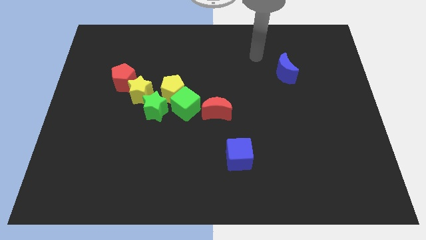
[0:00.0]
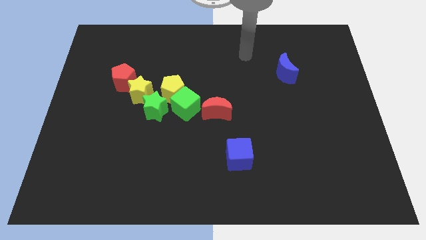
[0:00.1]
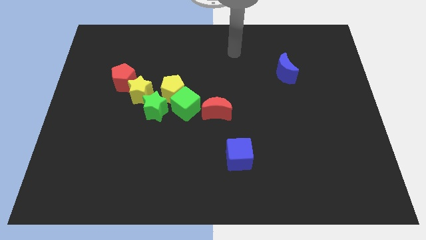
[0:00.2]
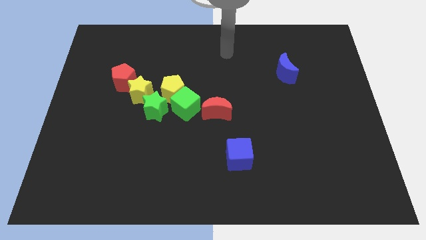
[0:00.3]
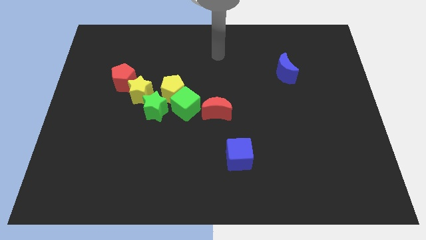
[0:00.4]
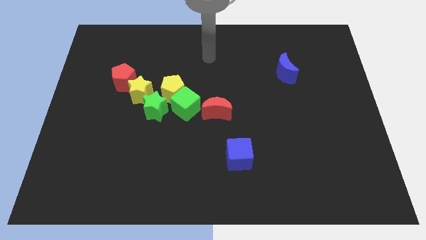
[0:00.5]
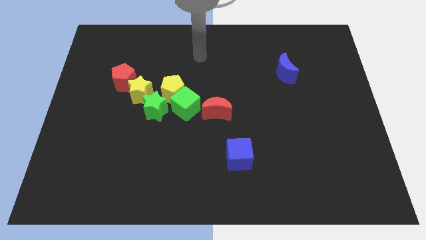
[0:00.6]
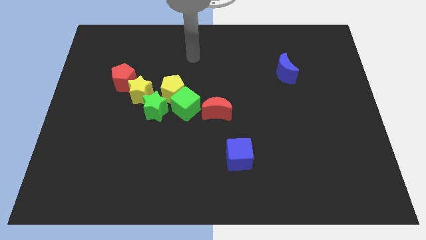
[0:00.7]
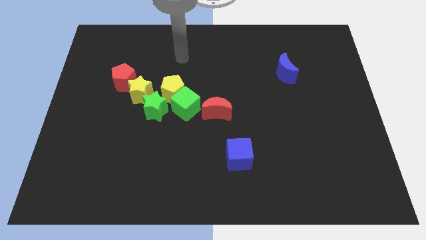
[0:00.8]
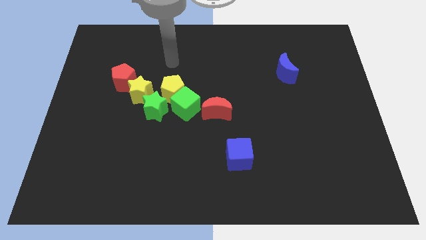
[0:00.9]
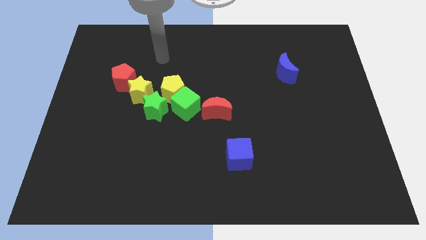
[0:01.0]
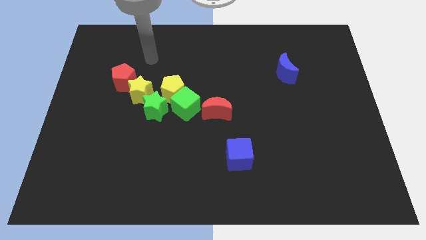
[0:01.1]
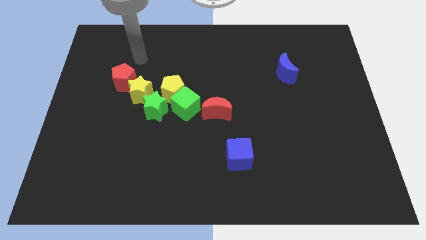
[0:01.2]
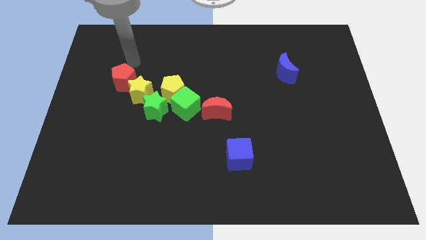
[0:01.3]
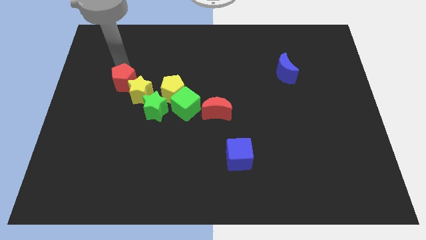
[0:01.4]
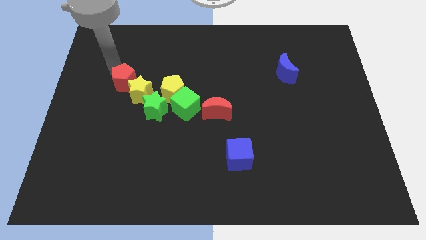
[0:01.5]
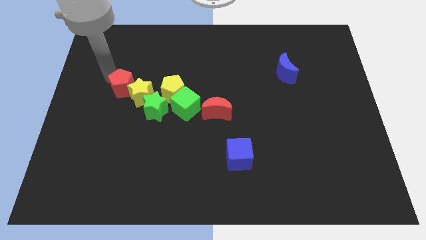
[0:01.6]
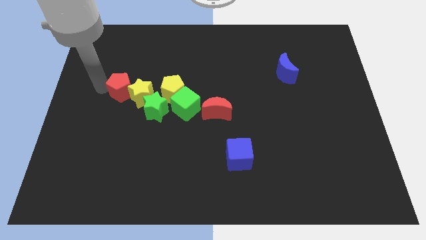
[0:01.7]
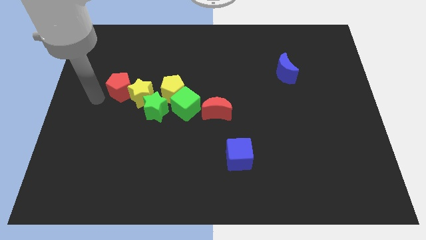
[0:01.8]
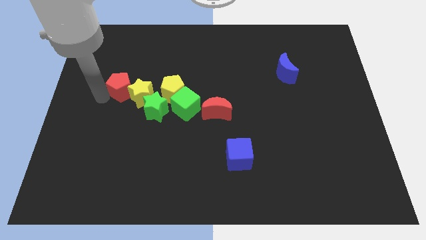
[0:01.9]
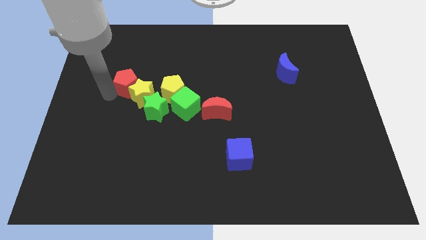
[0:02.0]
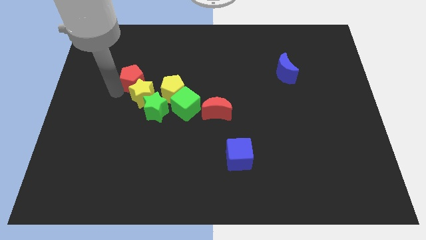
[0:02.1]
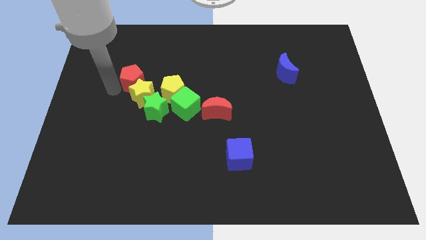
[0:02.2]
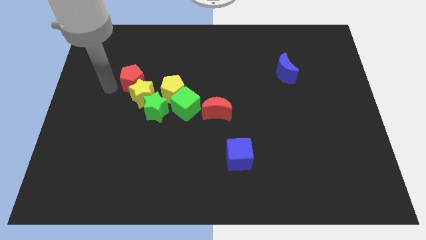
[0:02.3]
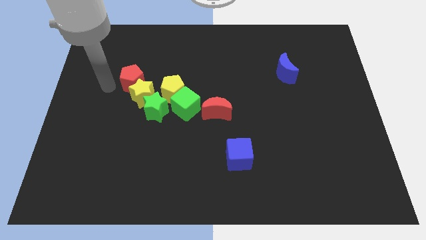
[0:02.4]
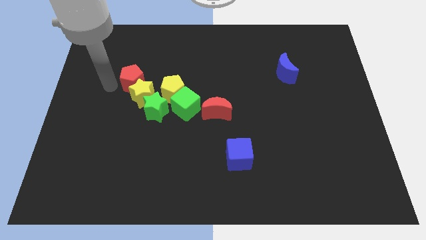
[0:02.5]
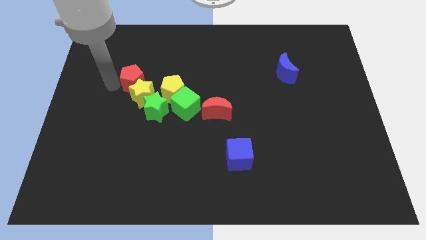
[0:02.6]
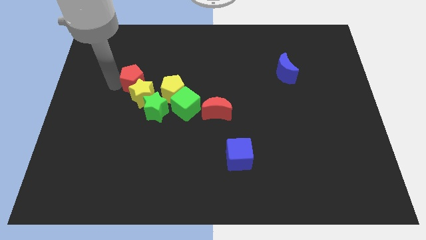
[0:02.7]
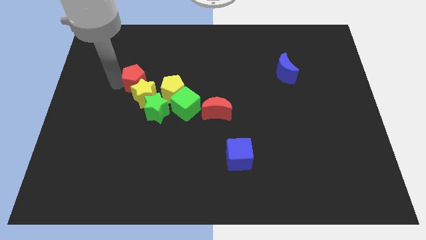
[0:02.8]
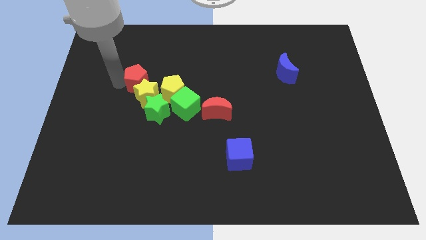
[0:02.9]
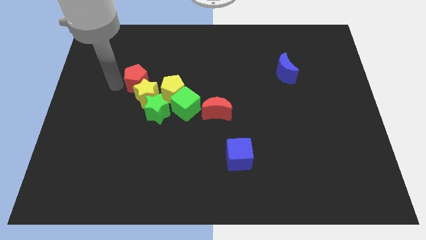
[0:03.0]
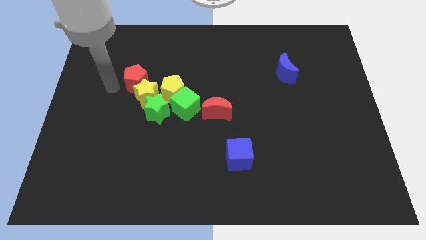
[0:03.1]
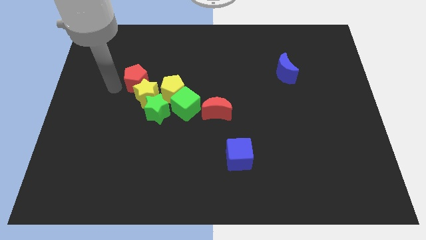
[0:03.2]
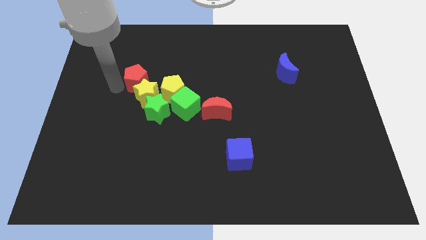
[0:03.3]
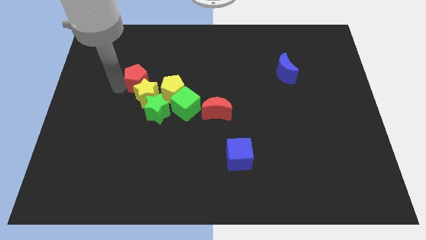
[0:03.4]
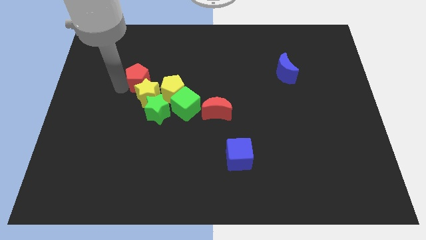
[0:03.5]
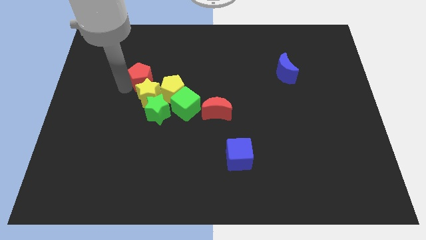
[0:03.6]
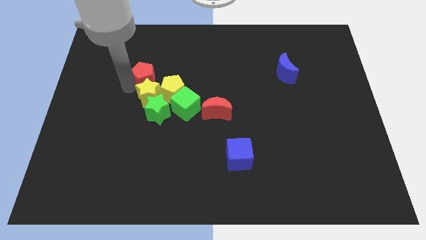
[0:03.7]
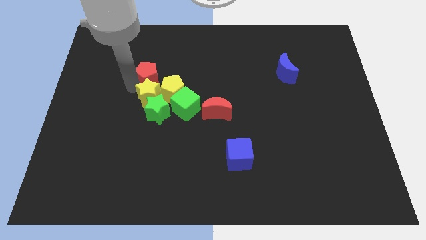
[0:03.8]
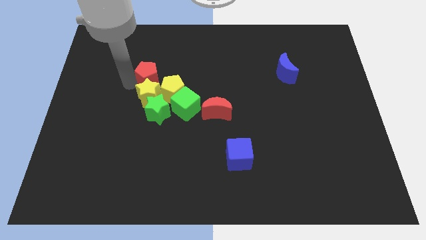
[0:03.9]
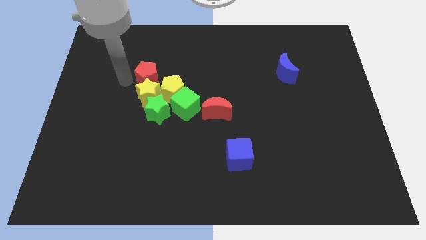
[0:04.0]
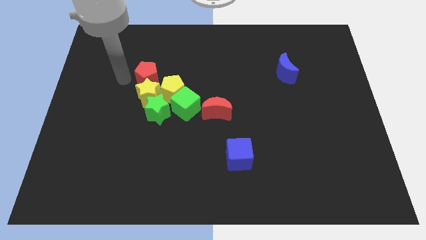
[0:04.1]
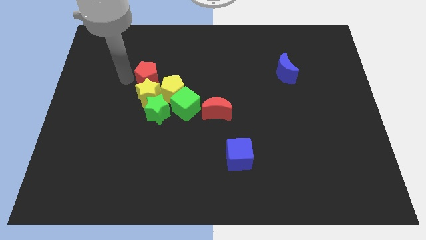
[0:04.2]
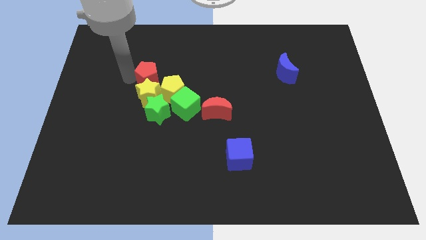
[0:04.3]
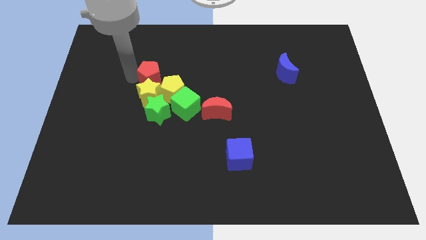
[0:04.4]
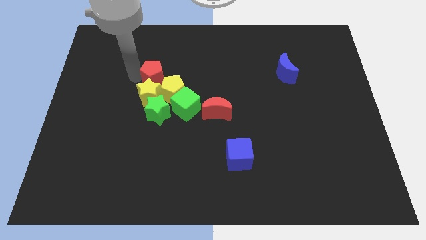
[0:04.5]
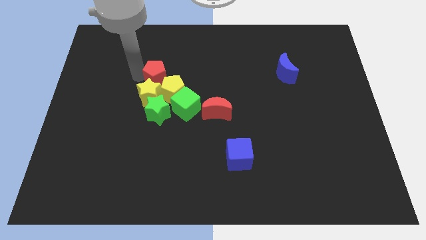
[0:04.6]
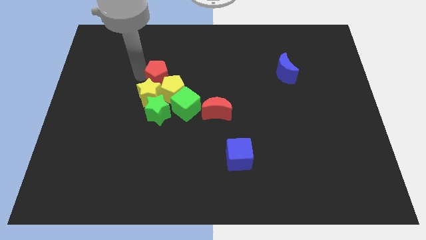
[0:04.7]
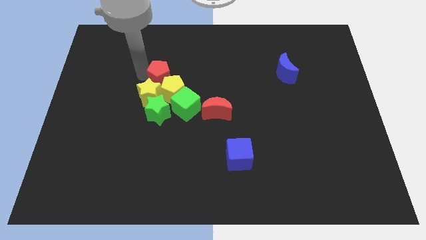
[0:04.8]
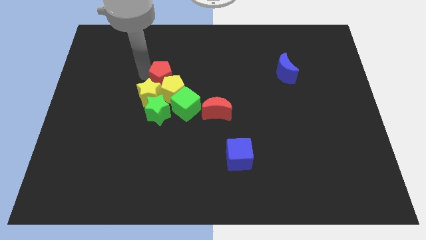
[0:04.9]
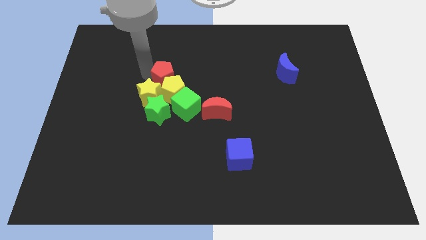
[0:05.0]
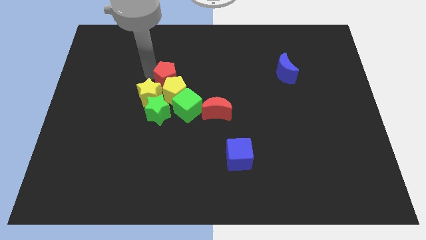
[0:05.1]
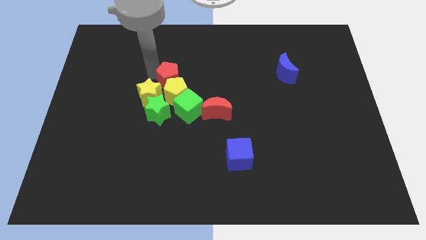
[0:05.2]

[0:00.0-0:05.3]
move the red pentagon diagonally up and to the right of the yellow pentagon

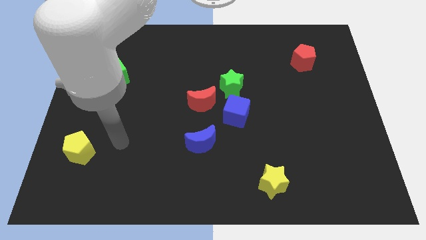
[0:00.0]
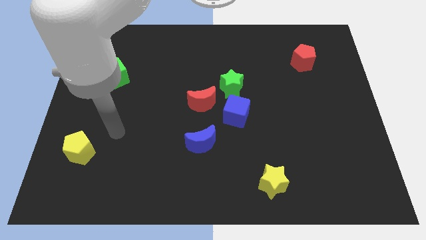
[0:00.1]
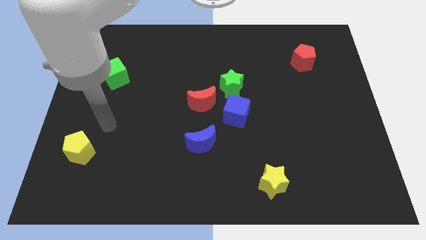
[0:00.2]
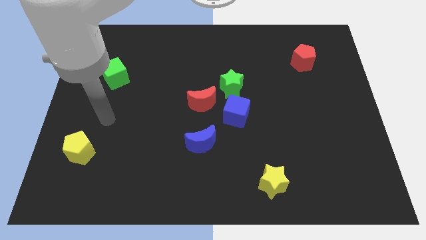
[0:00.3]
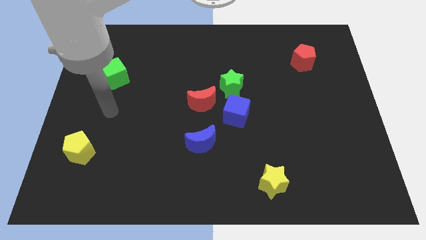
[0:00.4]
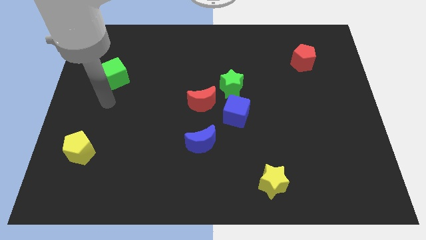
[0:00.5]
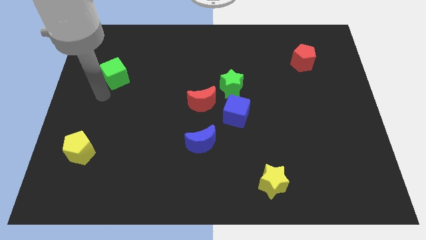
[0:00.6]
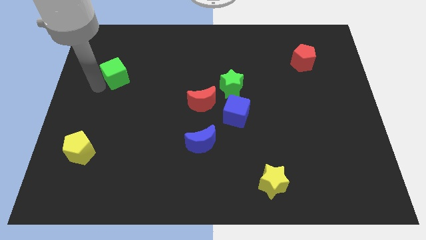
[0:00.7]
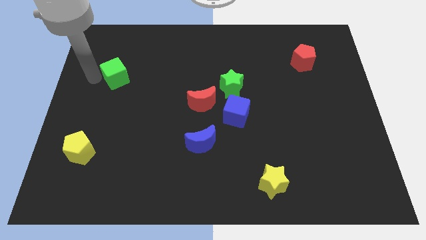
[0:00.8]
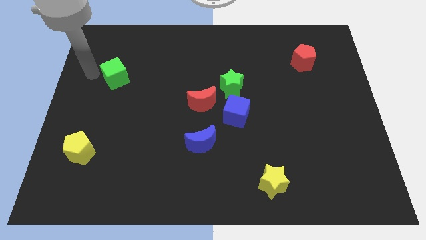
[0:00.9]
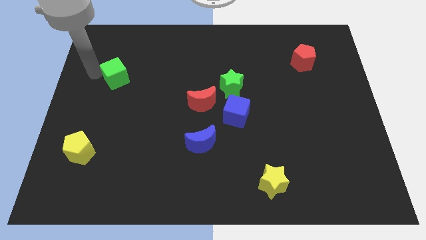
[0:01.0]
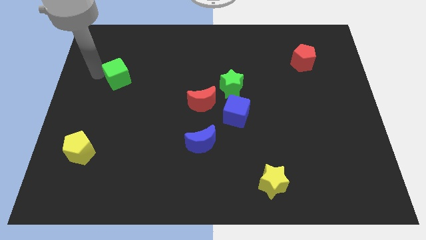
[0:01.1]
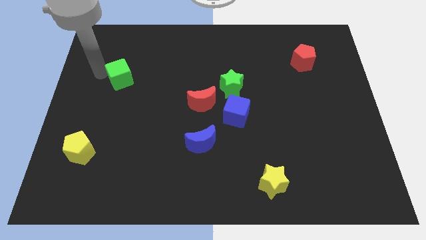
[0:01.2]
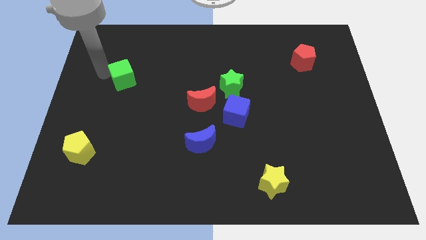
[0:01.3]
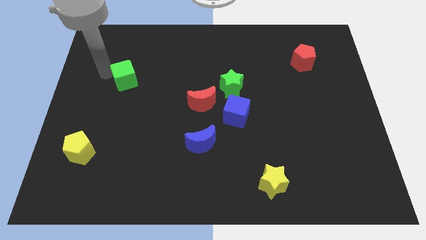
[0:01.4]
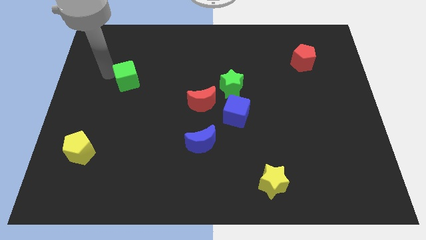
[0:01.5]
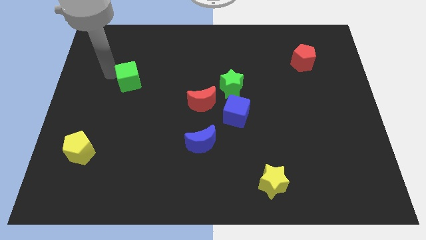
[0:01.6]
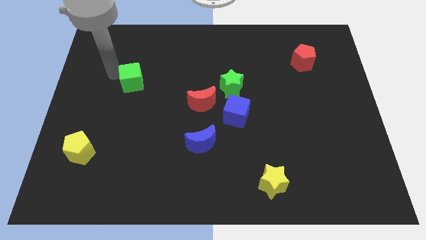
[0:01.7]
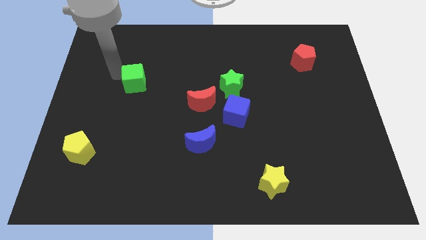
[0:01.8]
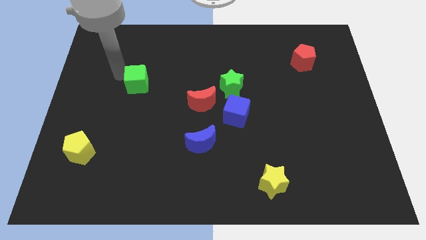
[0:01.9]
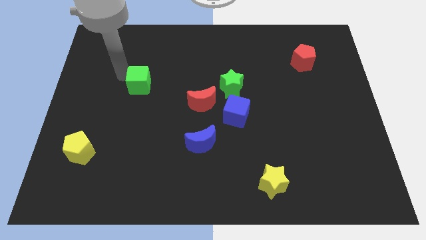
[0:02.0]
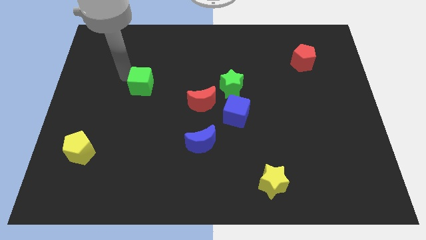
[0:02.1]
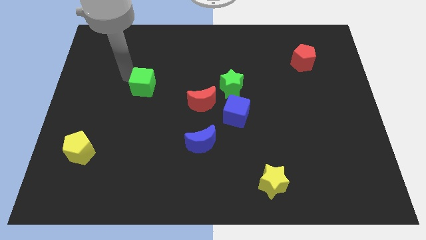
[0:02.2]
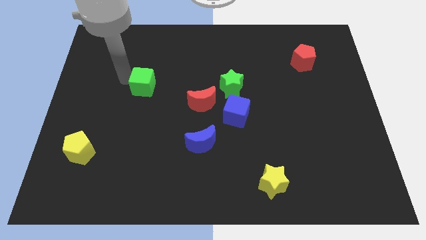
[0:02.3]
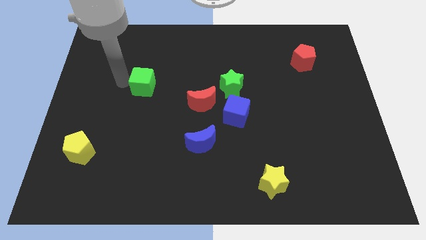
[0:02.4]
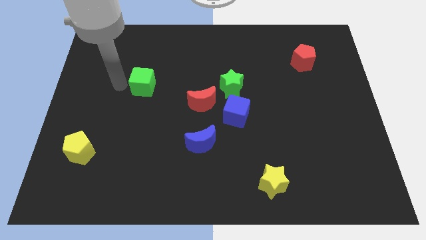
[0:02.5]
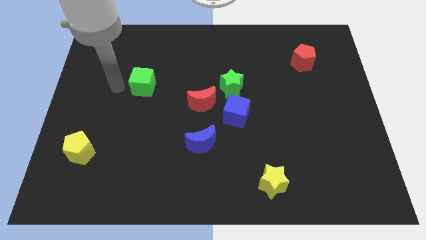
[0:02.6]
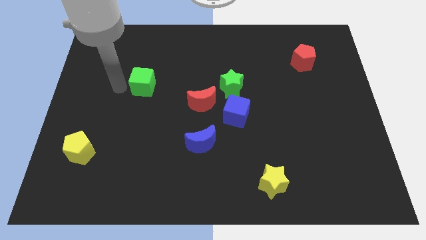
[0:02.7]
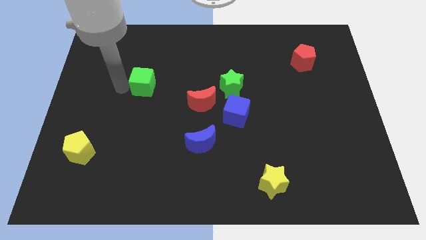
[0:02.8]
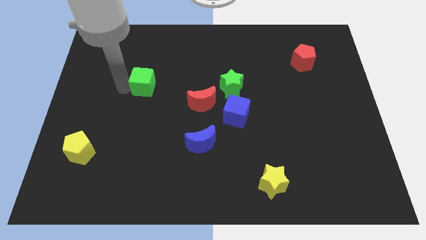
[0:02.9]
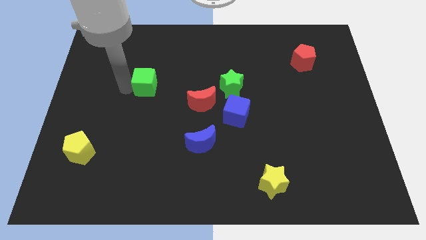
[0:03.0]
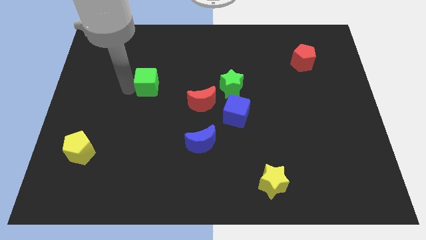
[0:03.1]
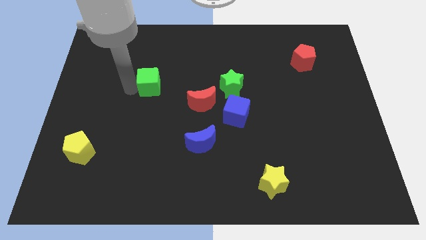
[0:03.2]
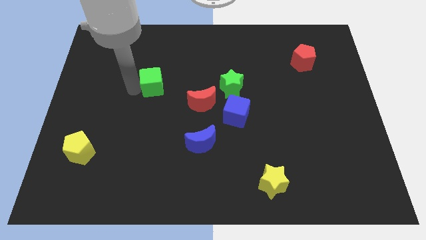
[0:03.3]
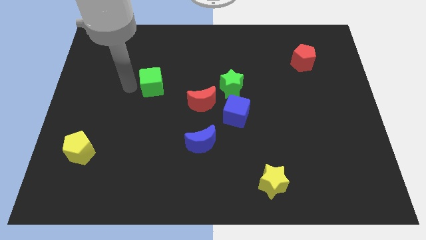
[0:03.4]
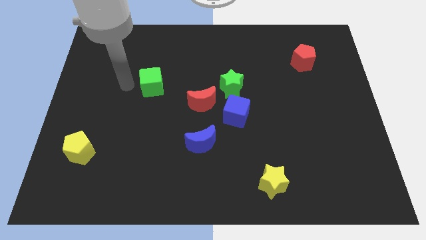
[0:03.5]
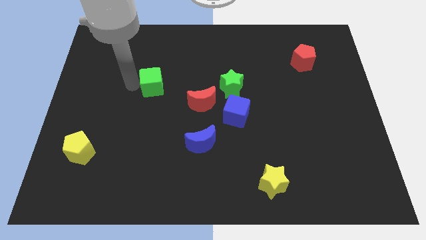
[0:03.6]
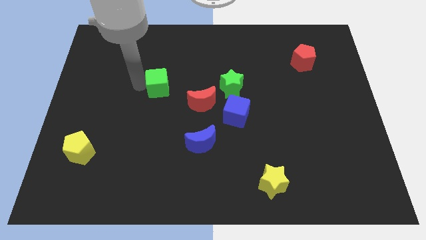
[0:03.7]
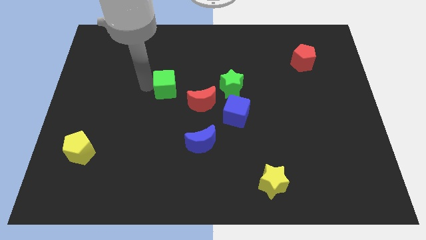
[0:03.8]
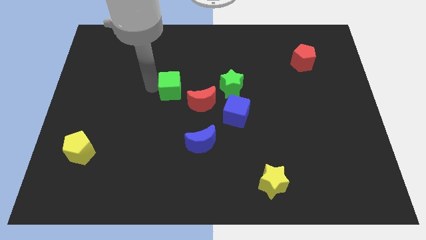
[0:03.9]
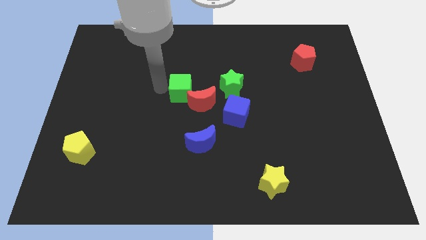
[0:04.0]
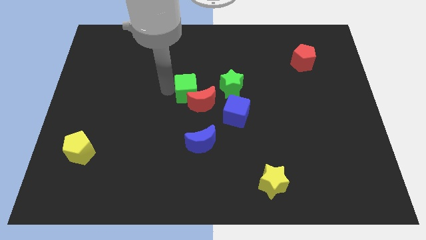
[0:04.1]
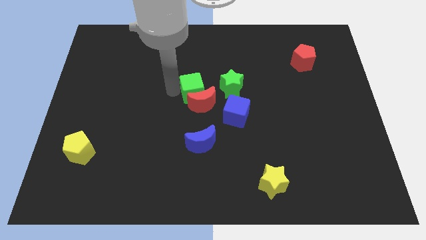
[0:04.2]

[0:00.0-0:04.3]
move the green cube above the blue moon
